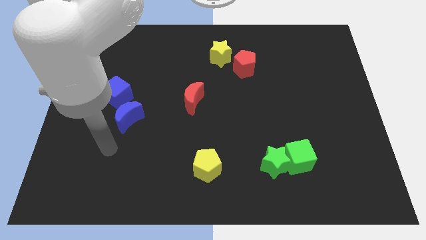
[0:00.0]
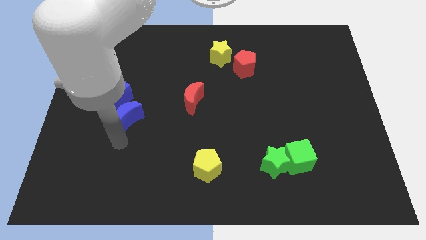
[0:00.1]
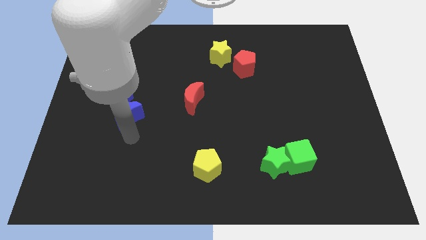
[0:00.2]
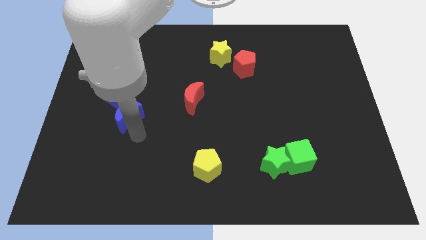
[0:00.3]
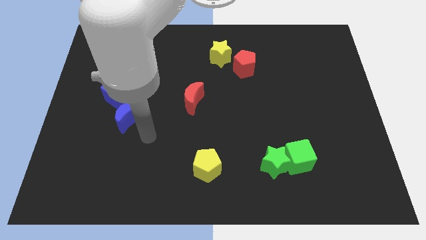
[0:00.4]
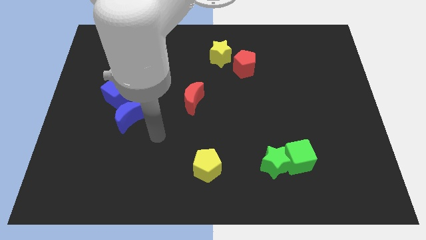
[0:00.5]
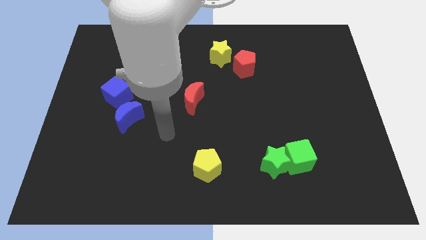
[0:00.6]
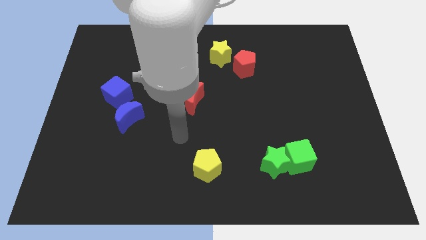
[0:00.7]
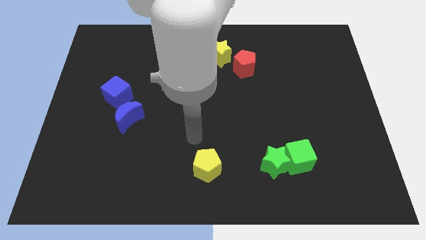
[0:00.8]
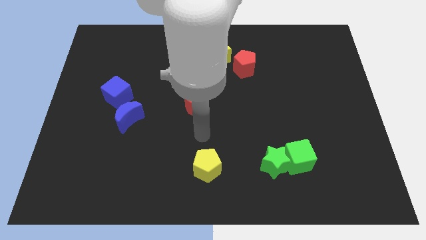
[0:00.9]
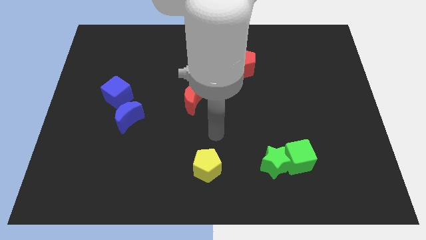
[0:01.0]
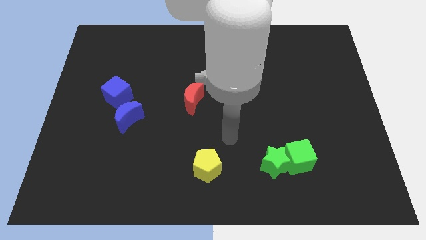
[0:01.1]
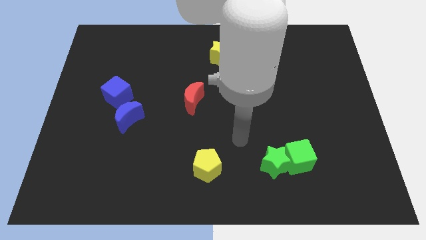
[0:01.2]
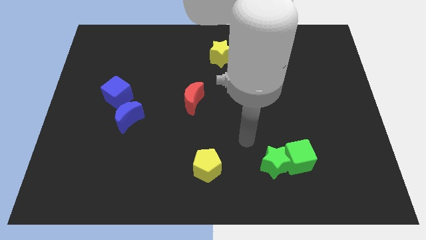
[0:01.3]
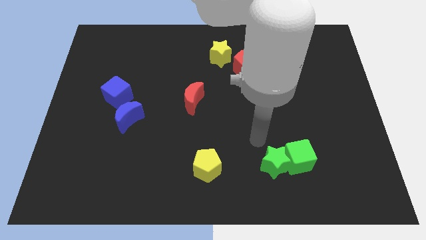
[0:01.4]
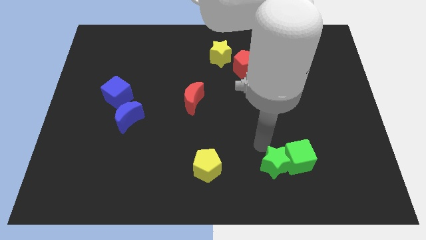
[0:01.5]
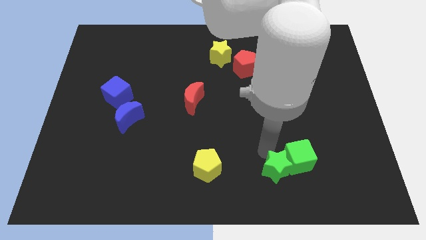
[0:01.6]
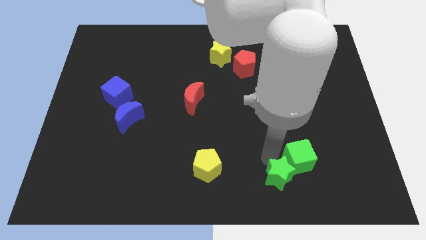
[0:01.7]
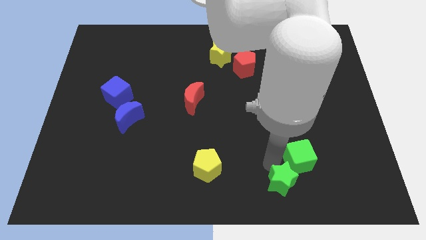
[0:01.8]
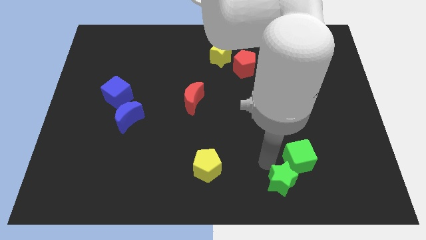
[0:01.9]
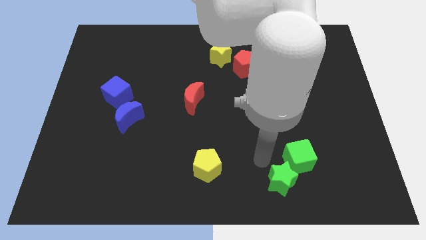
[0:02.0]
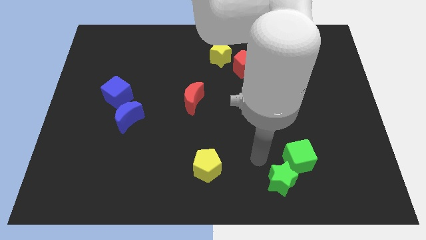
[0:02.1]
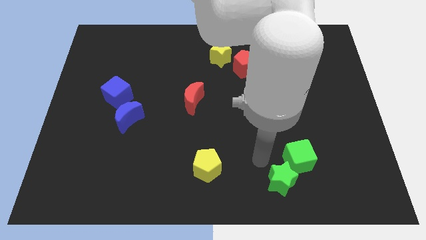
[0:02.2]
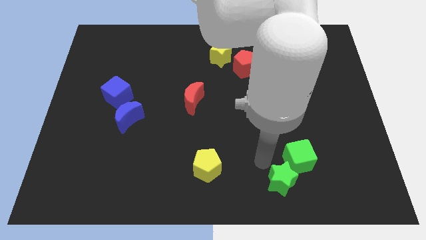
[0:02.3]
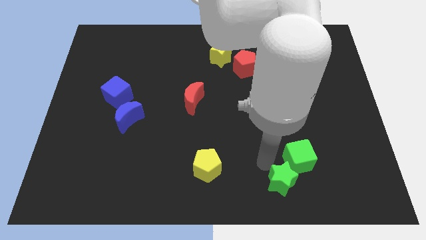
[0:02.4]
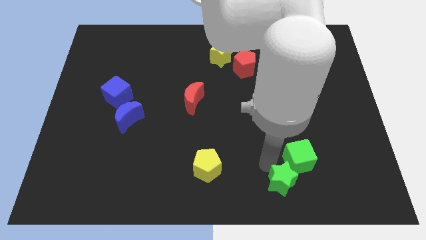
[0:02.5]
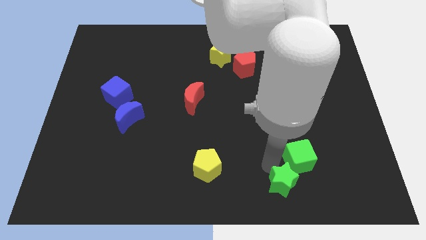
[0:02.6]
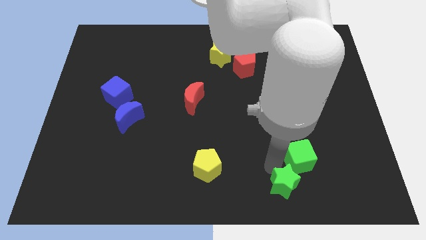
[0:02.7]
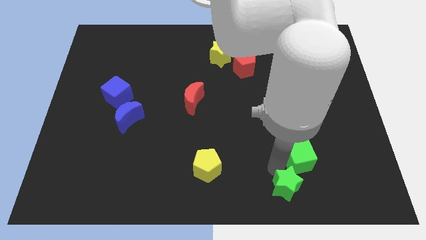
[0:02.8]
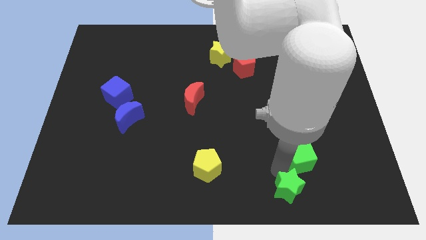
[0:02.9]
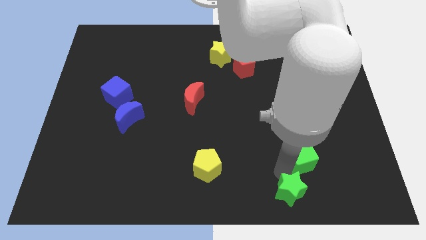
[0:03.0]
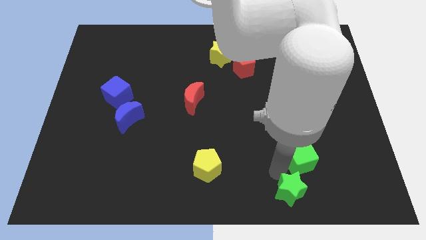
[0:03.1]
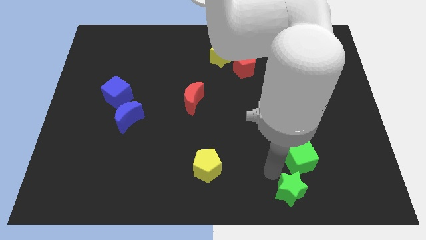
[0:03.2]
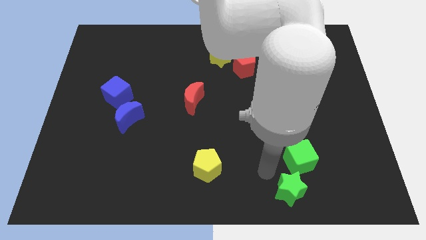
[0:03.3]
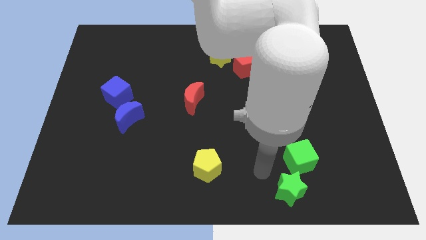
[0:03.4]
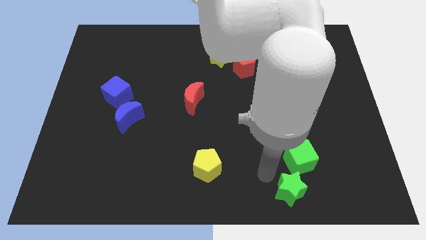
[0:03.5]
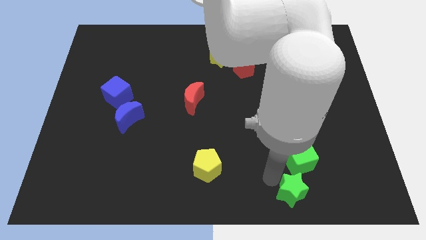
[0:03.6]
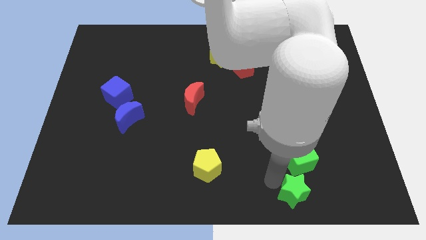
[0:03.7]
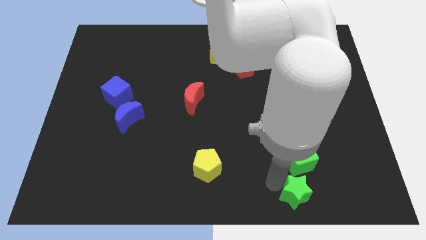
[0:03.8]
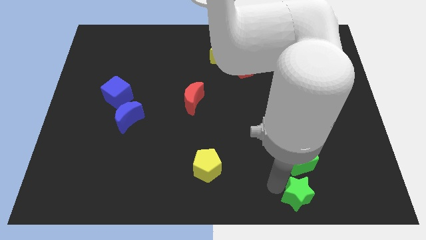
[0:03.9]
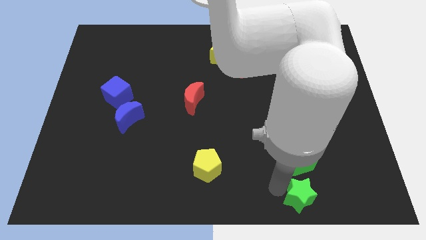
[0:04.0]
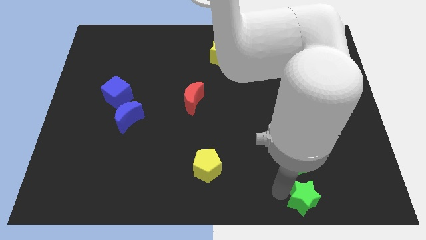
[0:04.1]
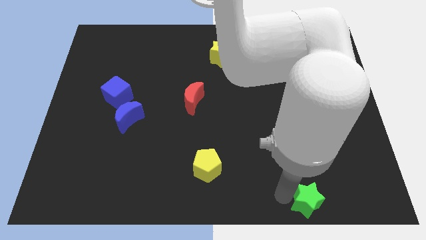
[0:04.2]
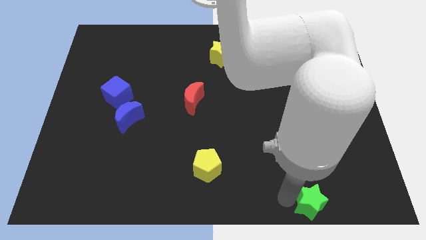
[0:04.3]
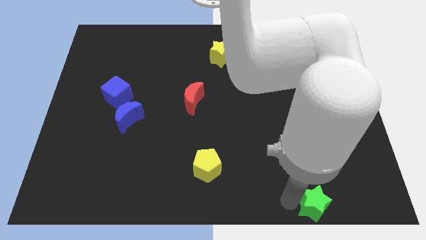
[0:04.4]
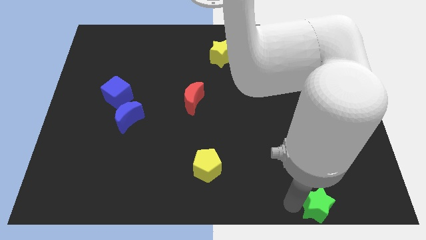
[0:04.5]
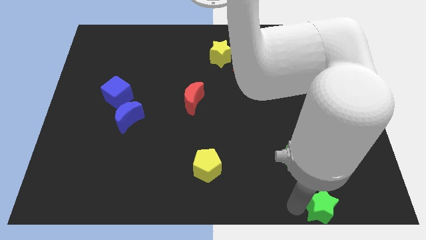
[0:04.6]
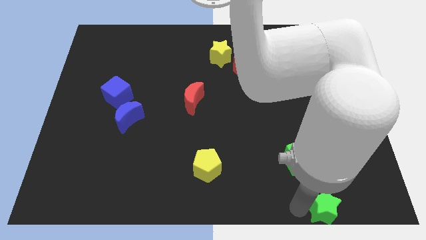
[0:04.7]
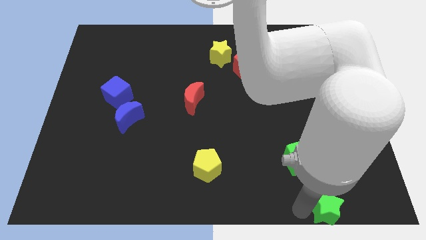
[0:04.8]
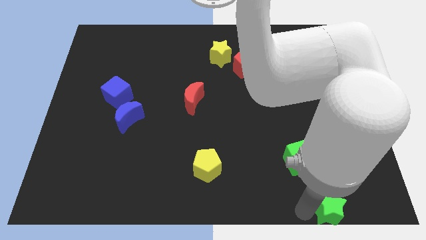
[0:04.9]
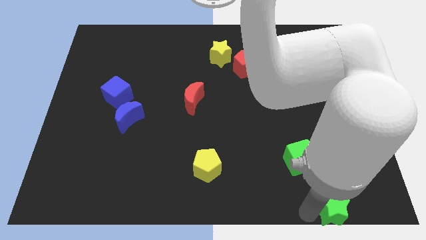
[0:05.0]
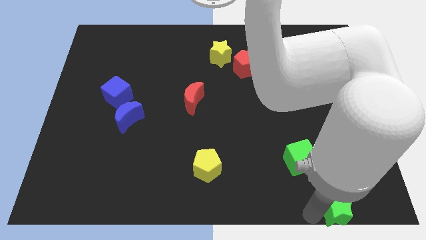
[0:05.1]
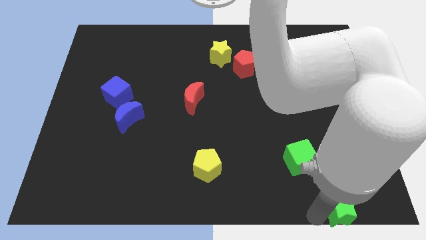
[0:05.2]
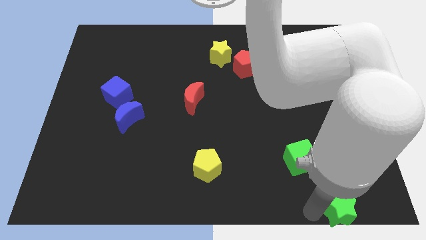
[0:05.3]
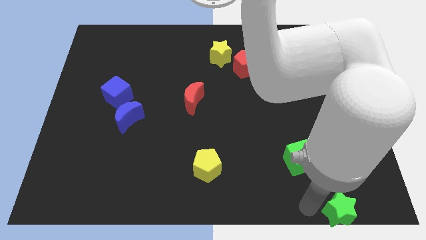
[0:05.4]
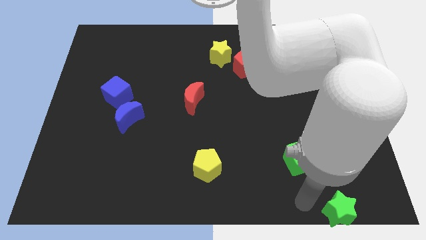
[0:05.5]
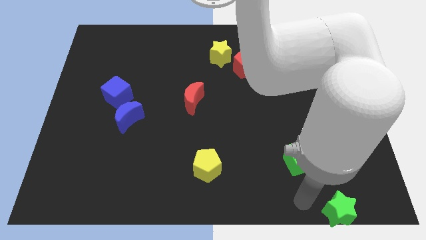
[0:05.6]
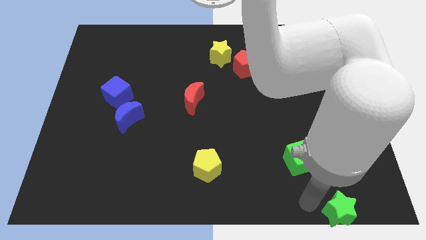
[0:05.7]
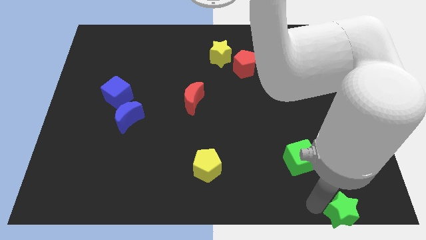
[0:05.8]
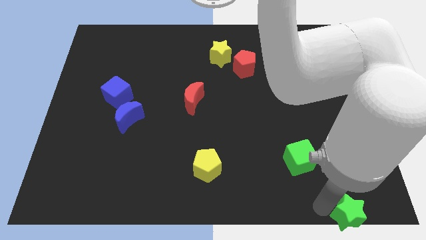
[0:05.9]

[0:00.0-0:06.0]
push the green star to the lower right corner
